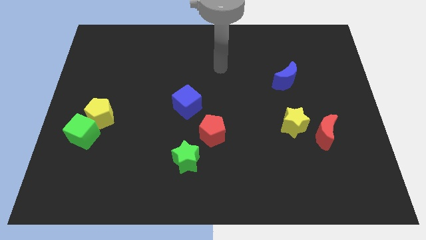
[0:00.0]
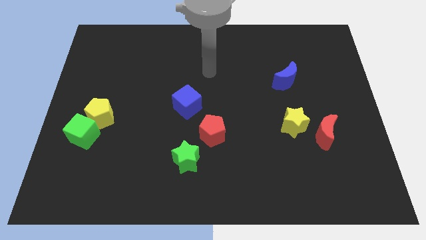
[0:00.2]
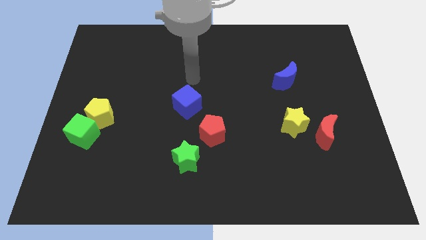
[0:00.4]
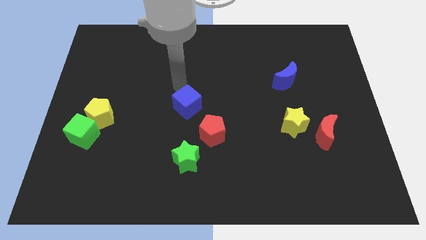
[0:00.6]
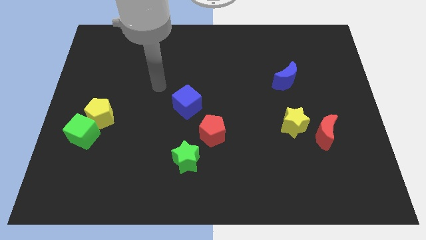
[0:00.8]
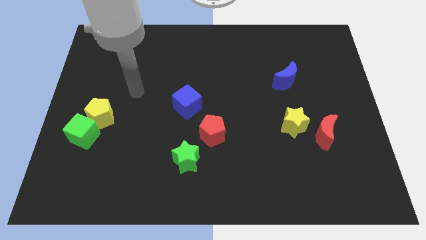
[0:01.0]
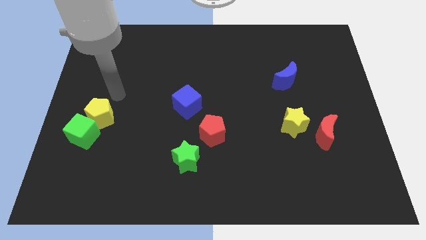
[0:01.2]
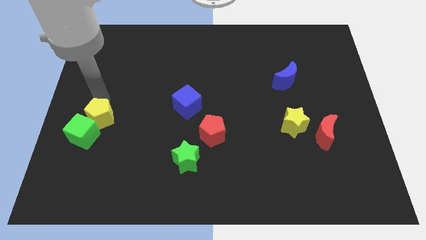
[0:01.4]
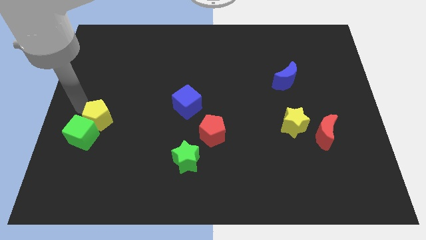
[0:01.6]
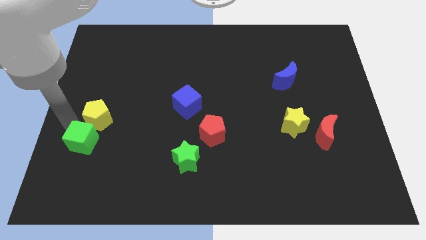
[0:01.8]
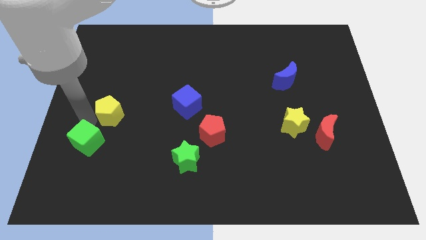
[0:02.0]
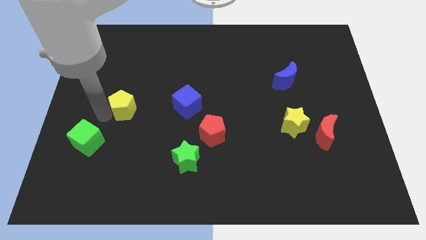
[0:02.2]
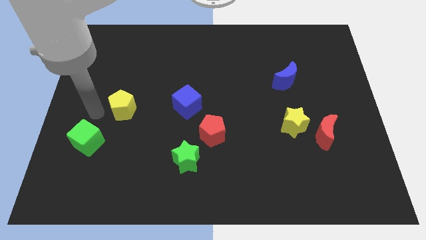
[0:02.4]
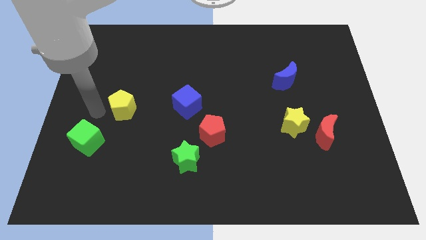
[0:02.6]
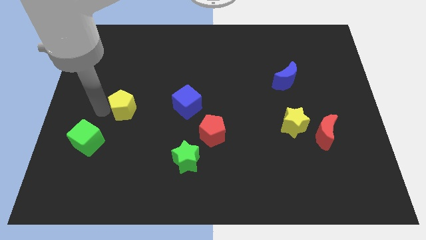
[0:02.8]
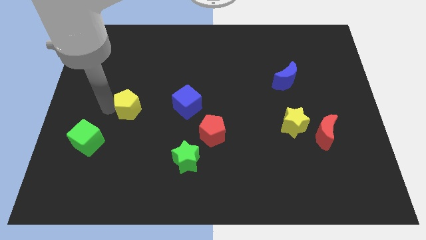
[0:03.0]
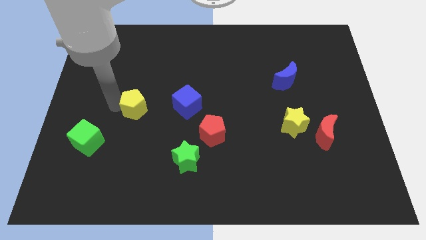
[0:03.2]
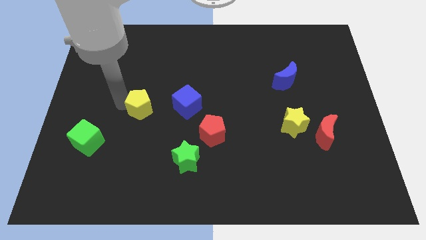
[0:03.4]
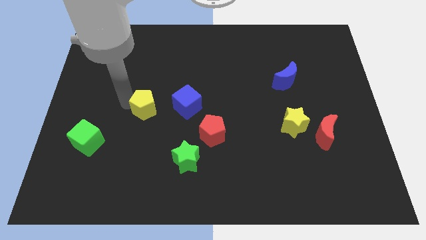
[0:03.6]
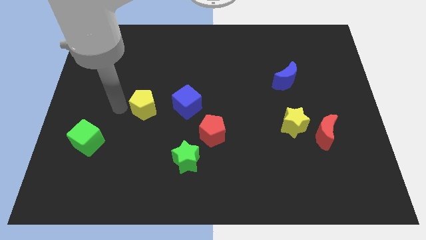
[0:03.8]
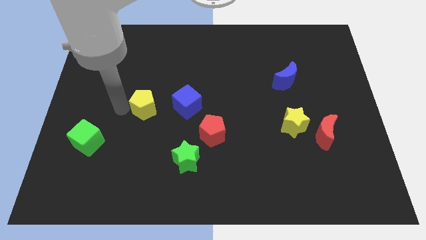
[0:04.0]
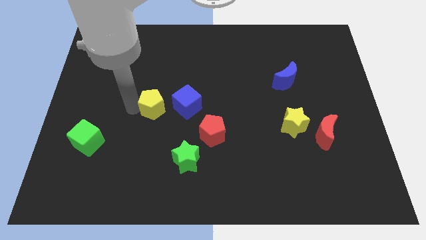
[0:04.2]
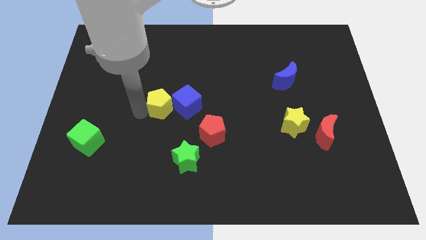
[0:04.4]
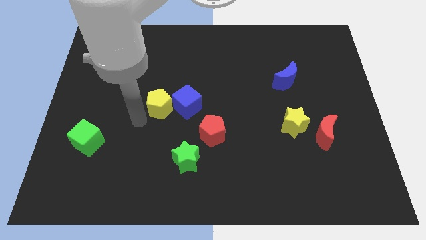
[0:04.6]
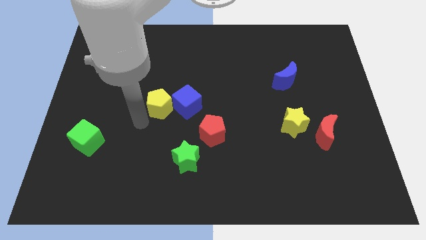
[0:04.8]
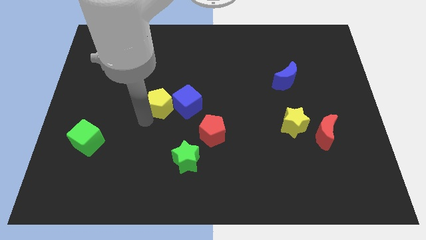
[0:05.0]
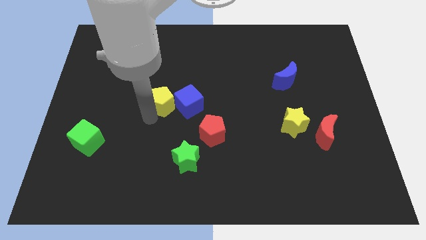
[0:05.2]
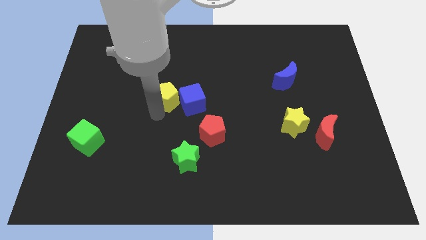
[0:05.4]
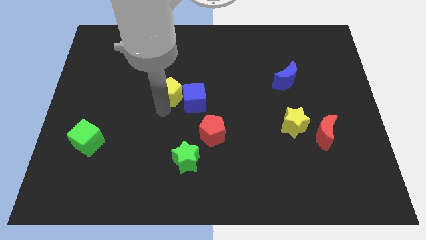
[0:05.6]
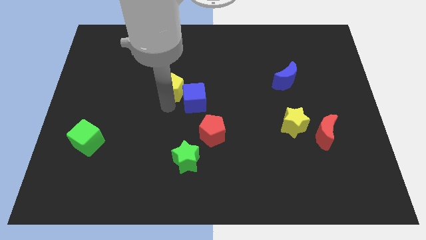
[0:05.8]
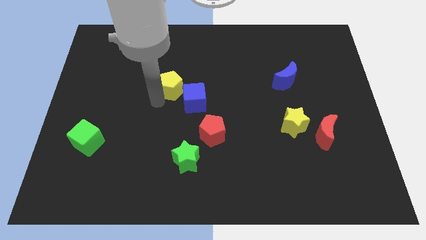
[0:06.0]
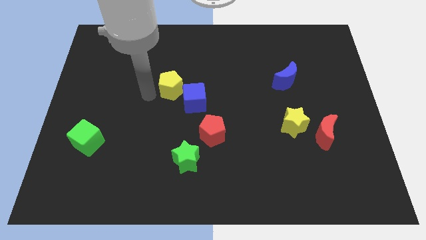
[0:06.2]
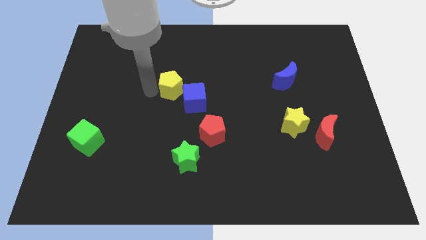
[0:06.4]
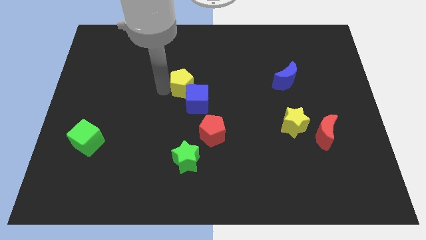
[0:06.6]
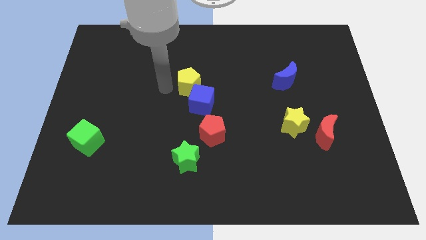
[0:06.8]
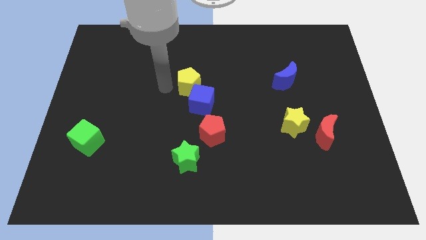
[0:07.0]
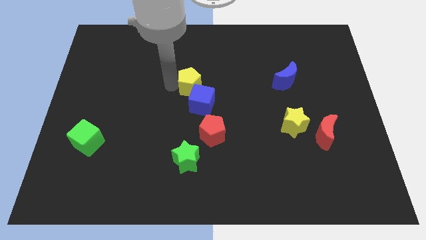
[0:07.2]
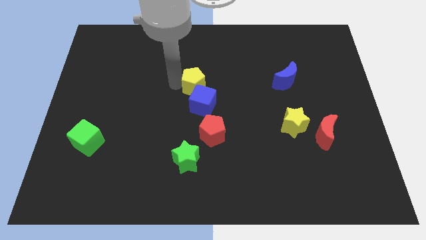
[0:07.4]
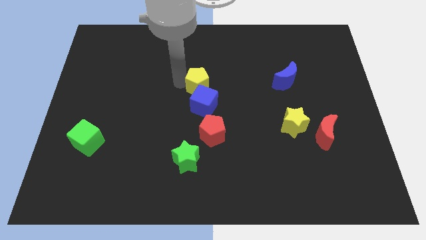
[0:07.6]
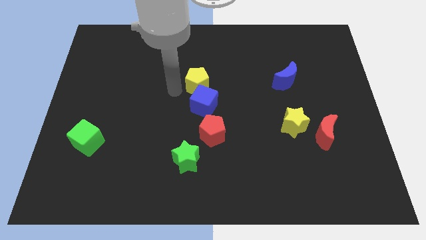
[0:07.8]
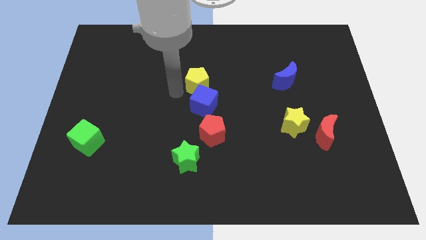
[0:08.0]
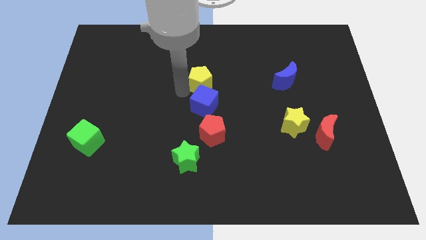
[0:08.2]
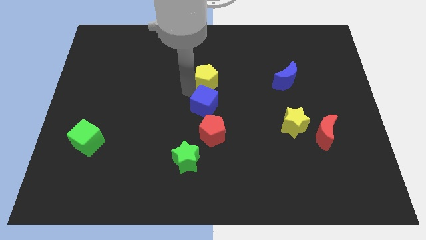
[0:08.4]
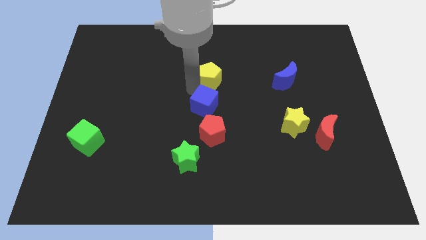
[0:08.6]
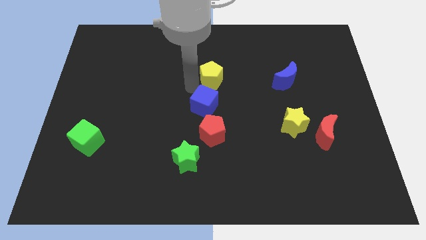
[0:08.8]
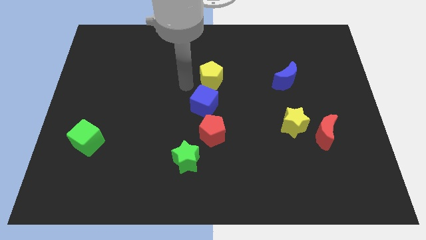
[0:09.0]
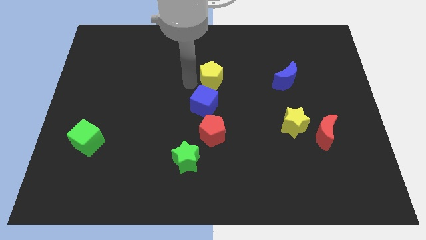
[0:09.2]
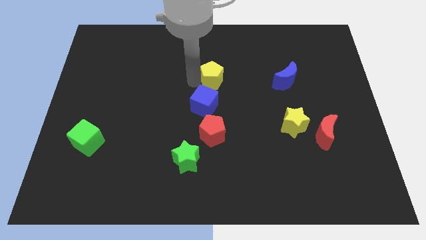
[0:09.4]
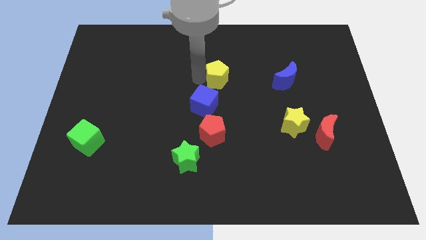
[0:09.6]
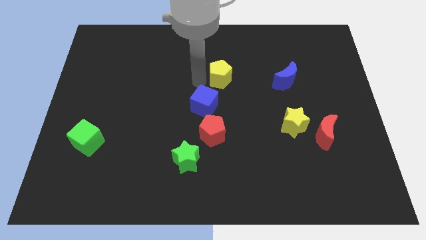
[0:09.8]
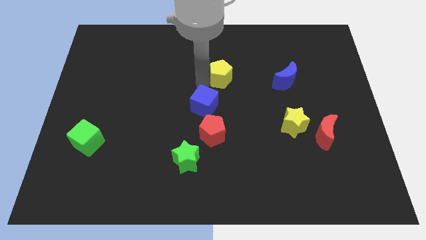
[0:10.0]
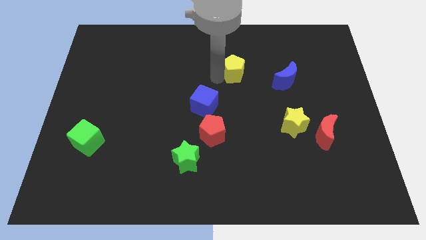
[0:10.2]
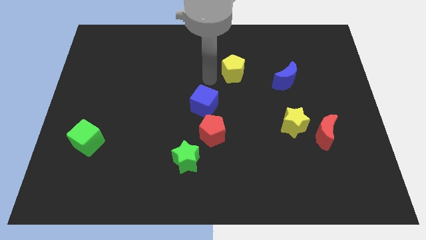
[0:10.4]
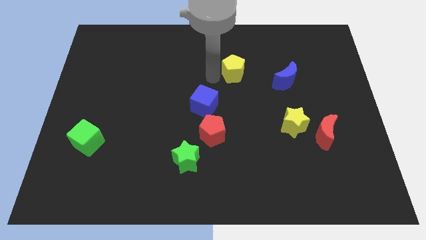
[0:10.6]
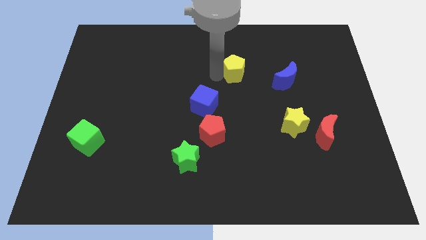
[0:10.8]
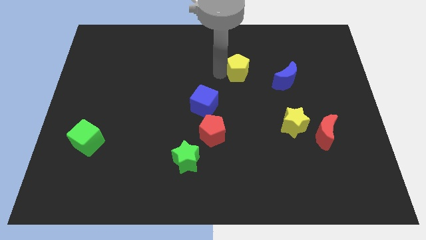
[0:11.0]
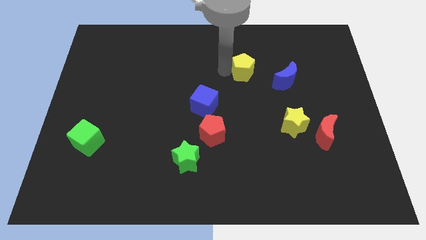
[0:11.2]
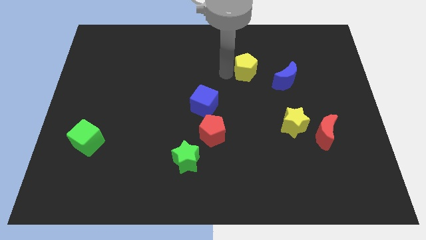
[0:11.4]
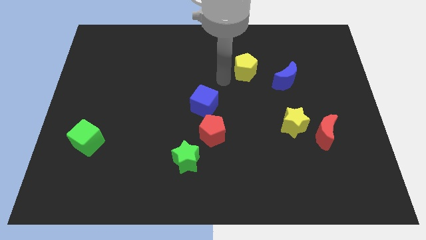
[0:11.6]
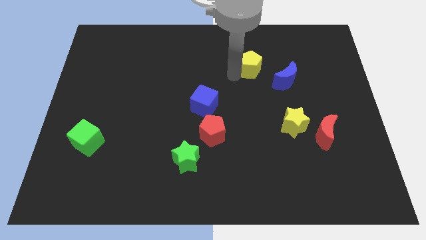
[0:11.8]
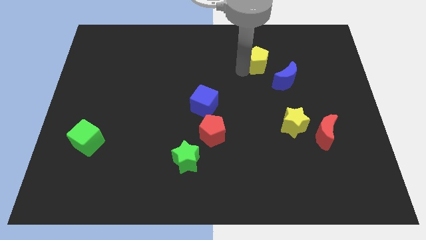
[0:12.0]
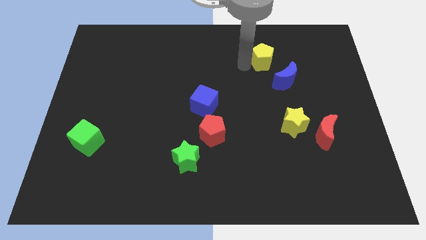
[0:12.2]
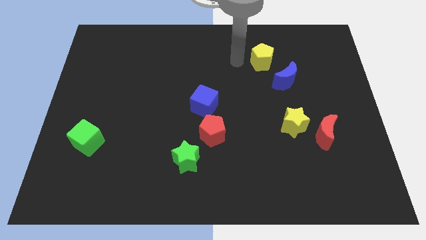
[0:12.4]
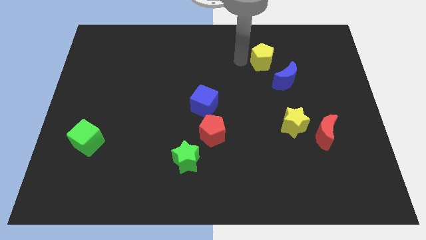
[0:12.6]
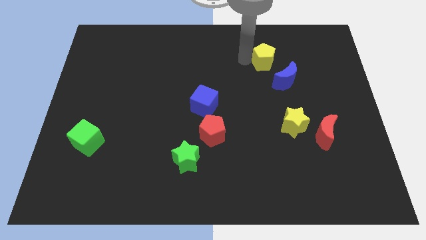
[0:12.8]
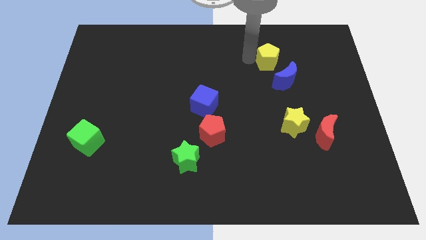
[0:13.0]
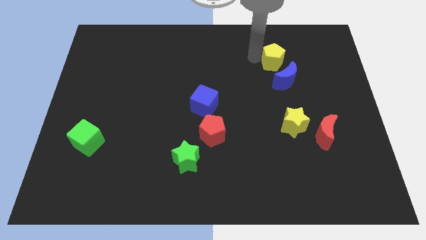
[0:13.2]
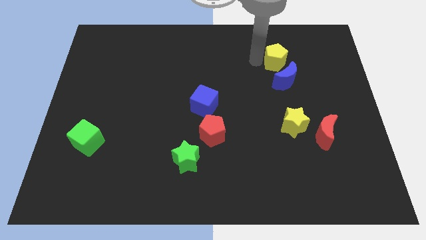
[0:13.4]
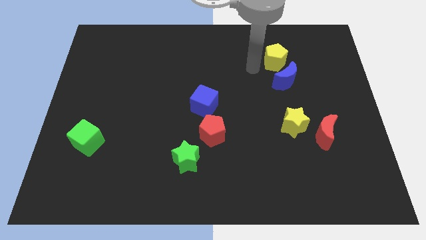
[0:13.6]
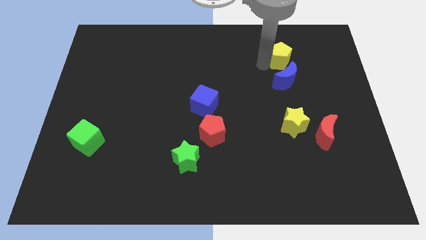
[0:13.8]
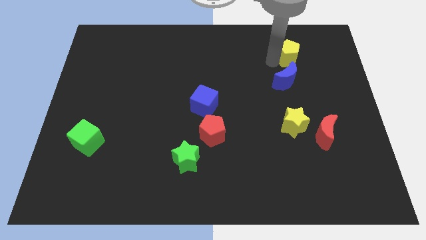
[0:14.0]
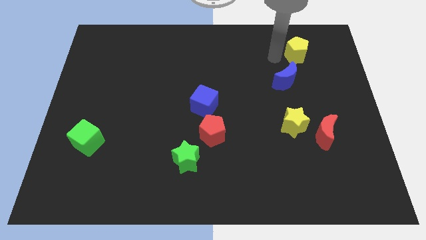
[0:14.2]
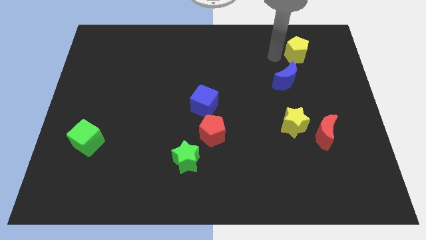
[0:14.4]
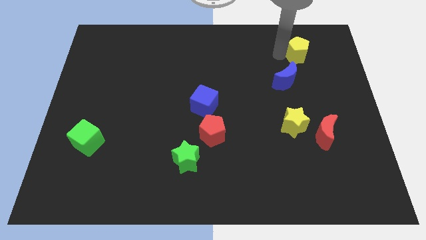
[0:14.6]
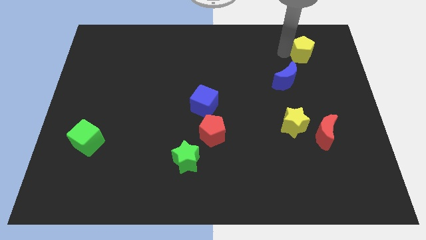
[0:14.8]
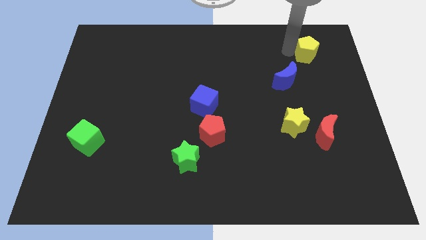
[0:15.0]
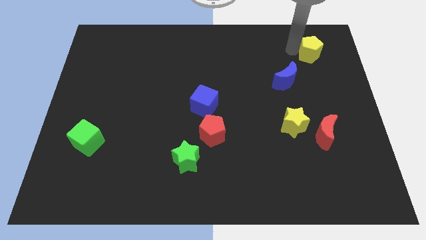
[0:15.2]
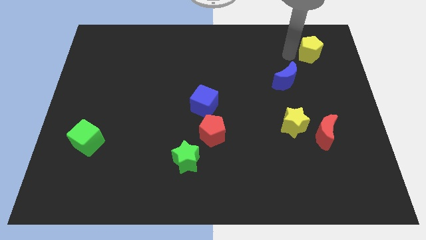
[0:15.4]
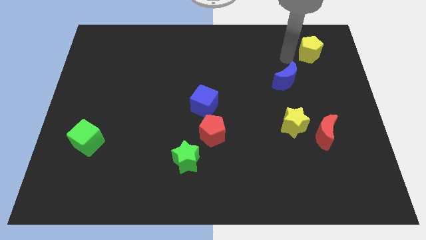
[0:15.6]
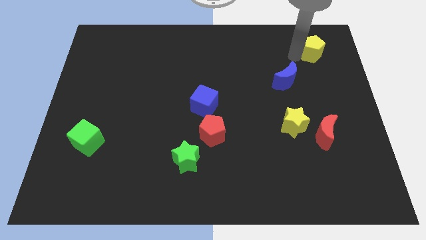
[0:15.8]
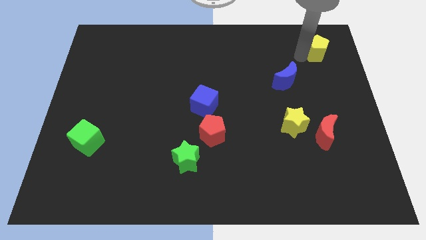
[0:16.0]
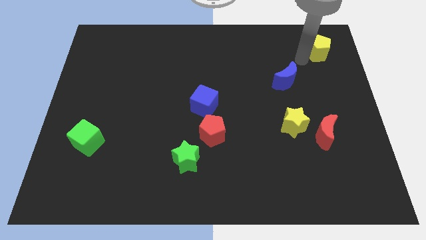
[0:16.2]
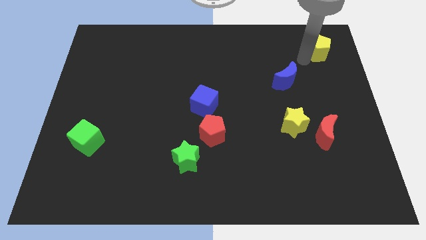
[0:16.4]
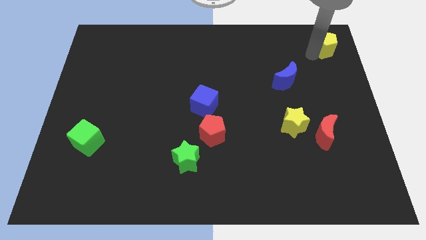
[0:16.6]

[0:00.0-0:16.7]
put the yellow pentagon to the upper right corner
